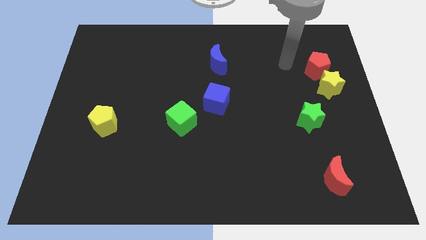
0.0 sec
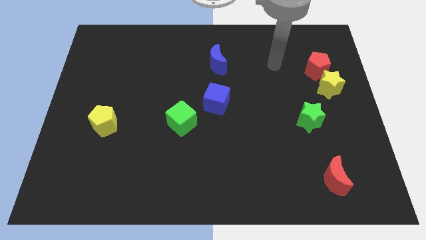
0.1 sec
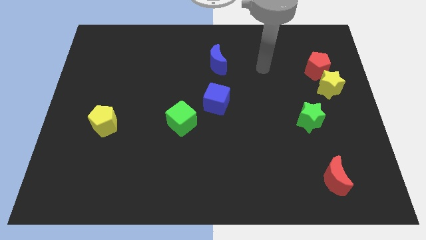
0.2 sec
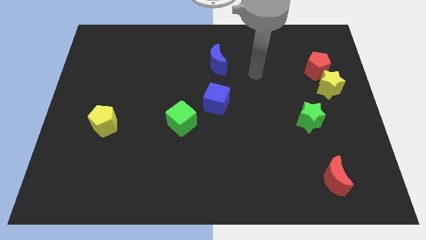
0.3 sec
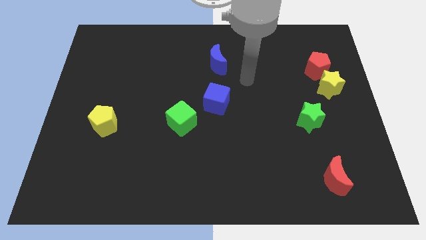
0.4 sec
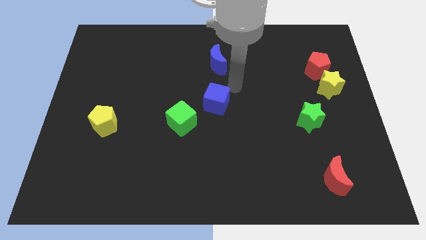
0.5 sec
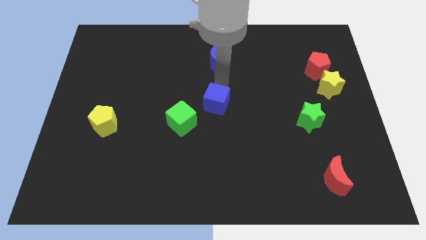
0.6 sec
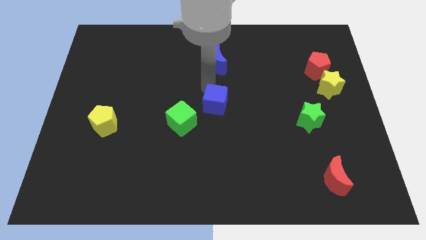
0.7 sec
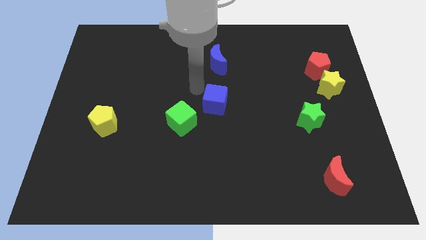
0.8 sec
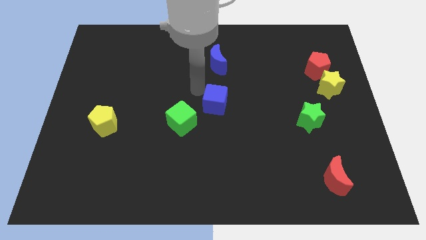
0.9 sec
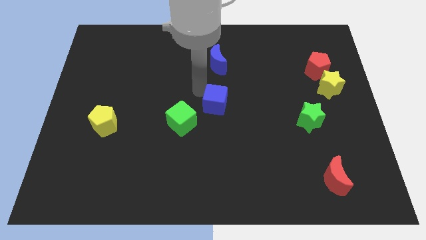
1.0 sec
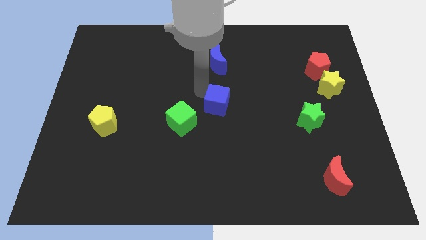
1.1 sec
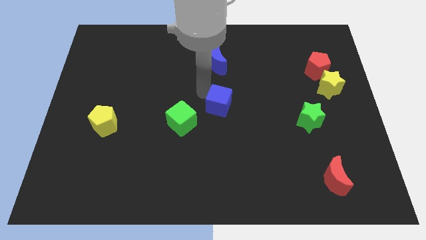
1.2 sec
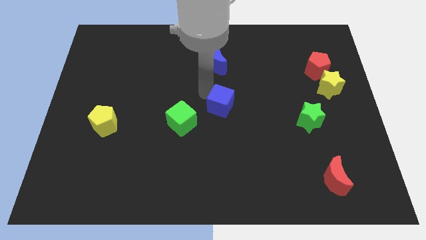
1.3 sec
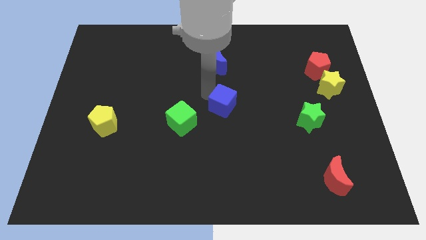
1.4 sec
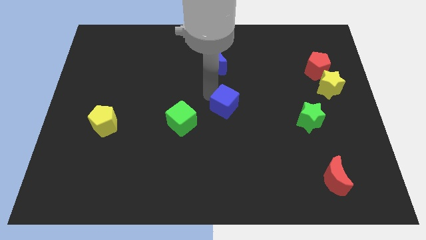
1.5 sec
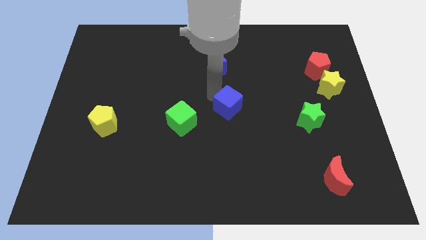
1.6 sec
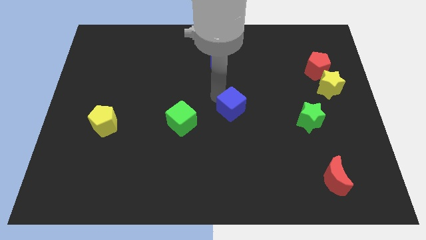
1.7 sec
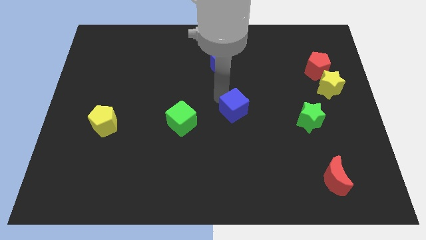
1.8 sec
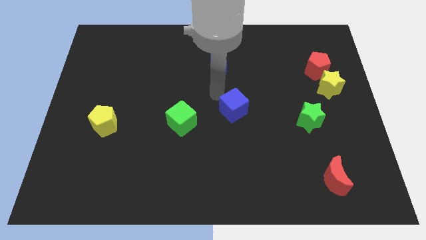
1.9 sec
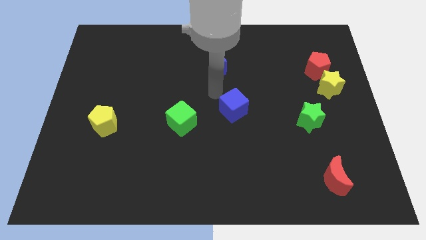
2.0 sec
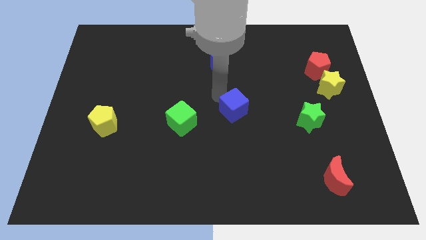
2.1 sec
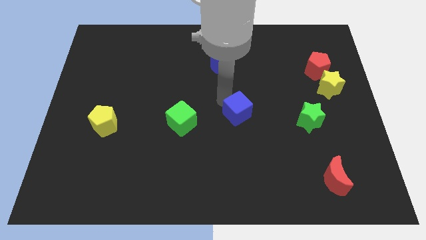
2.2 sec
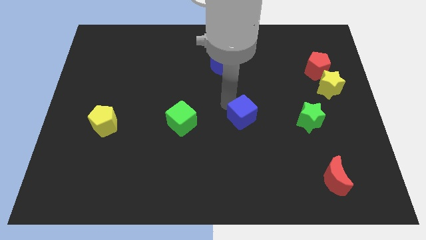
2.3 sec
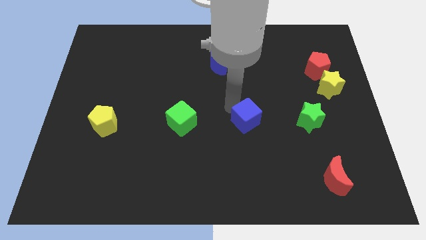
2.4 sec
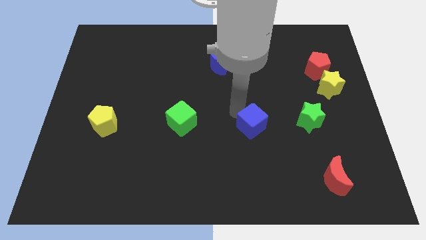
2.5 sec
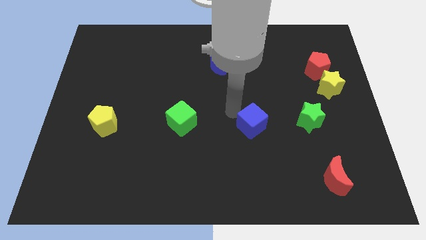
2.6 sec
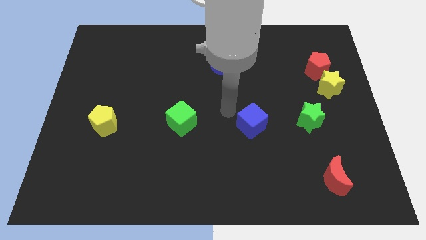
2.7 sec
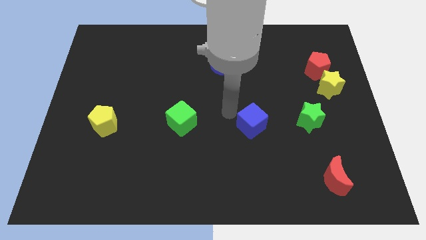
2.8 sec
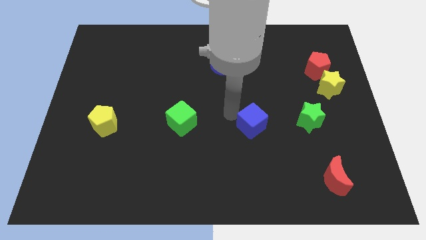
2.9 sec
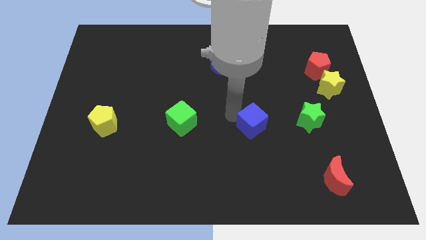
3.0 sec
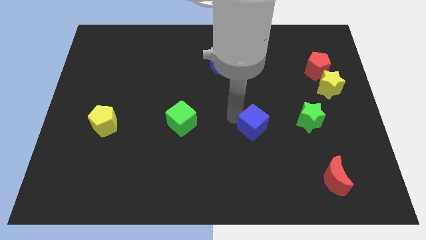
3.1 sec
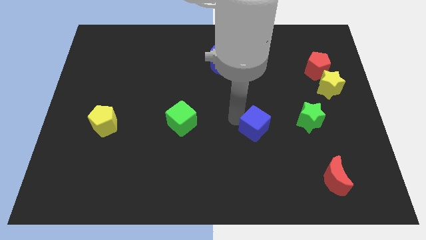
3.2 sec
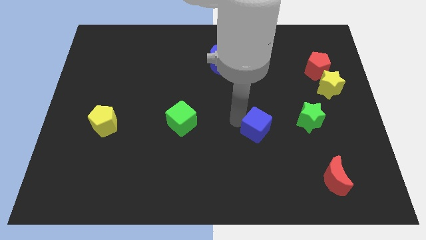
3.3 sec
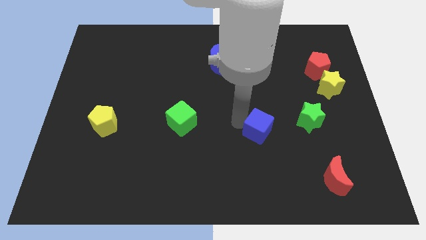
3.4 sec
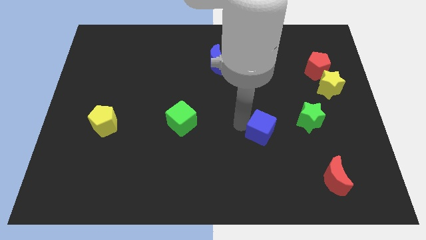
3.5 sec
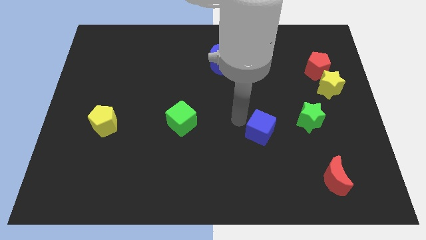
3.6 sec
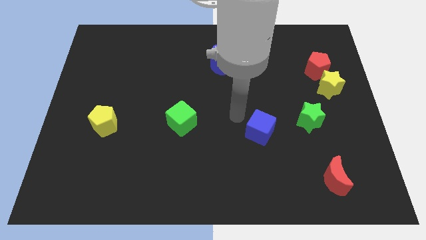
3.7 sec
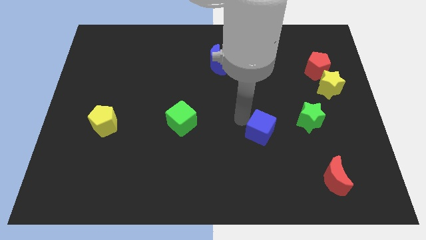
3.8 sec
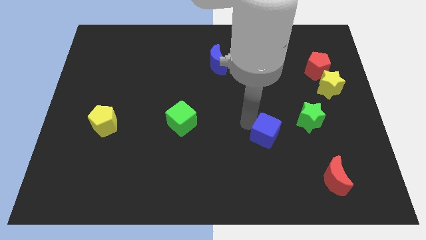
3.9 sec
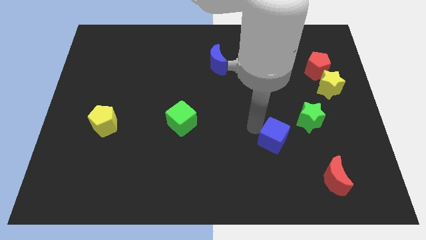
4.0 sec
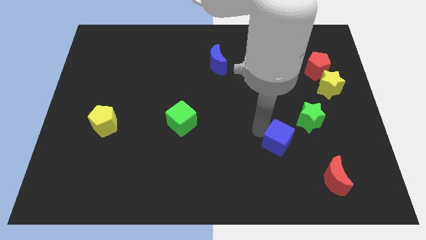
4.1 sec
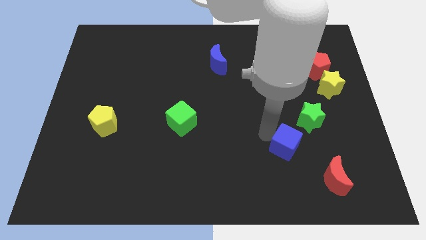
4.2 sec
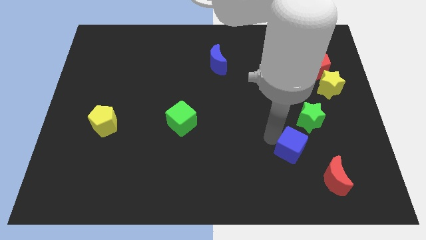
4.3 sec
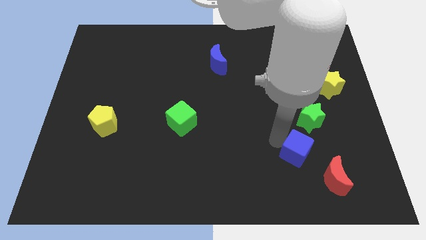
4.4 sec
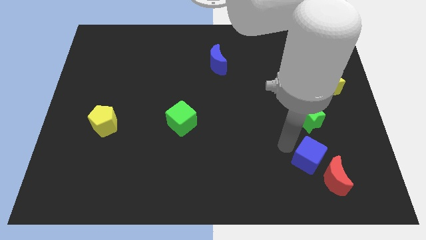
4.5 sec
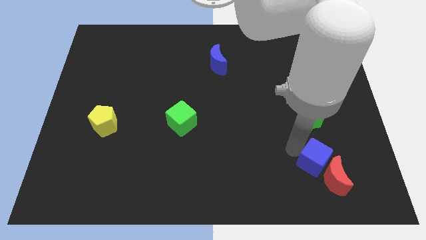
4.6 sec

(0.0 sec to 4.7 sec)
push the blue cube next to the red moon

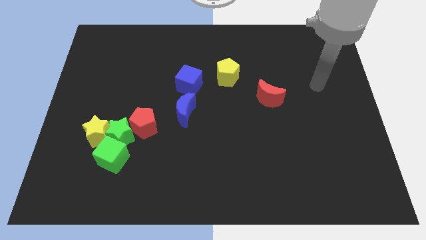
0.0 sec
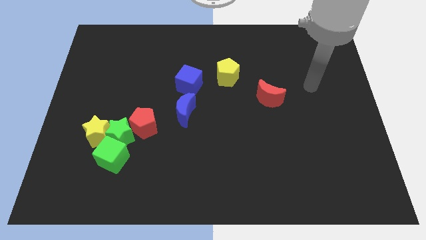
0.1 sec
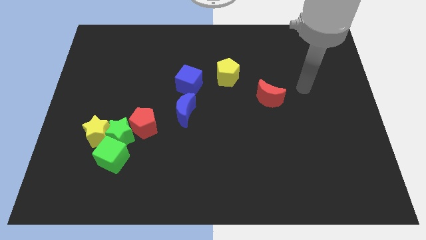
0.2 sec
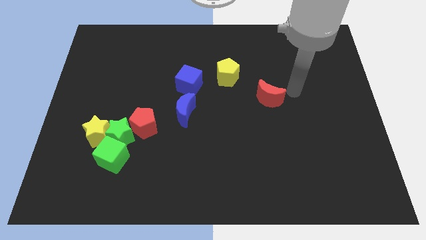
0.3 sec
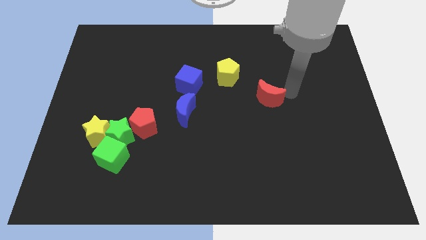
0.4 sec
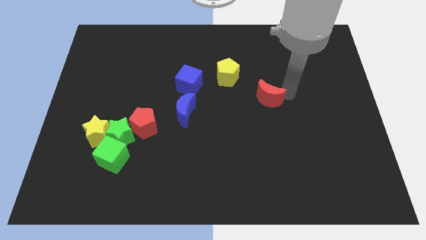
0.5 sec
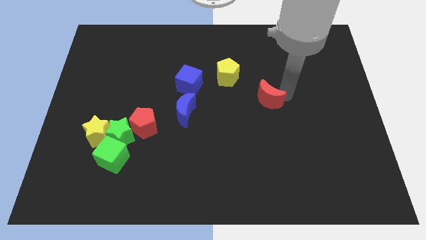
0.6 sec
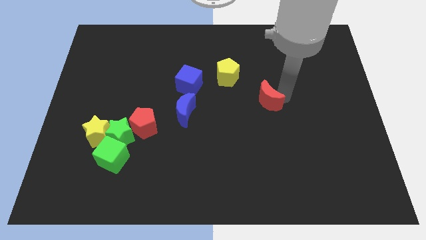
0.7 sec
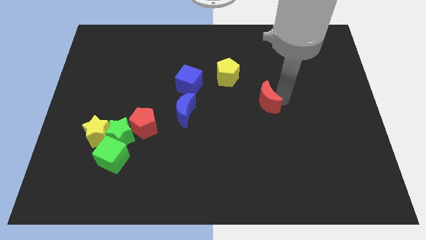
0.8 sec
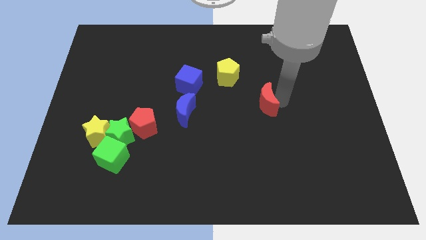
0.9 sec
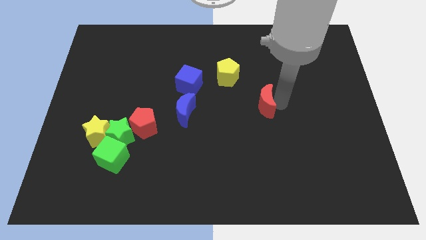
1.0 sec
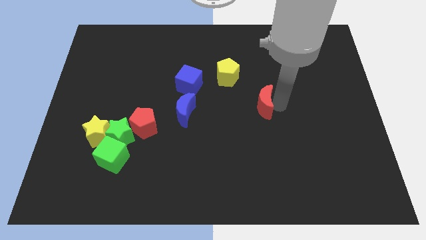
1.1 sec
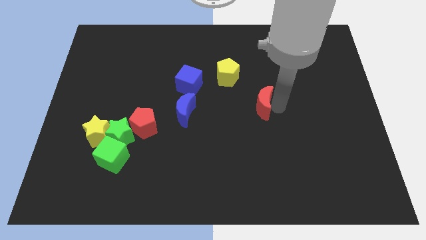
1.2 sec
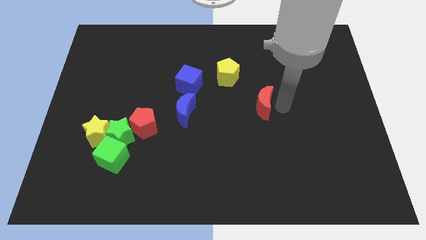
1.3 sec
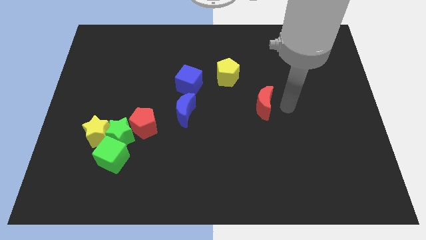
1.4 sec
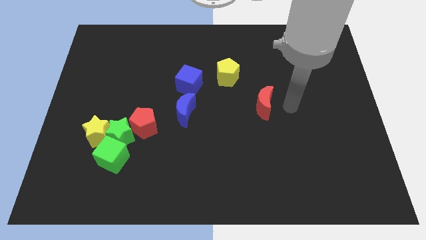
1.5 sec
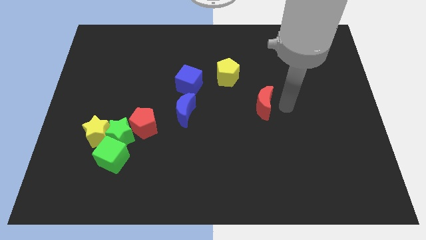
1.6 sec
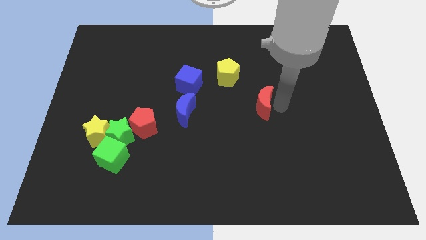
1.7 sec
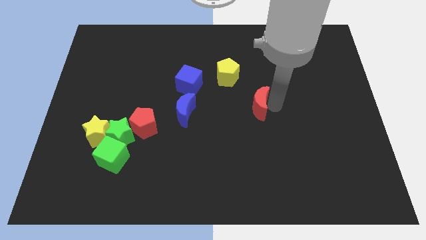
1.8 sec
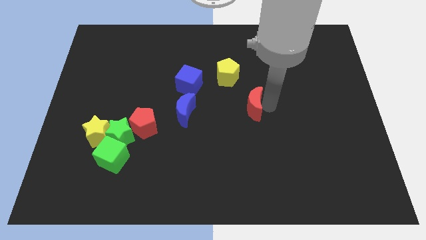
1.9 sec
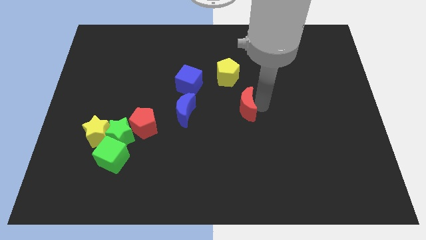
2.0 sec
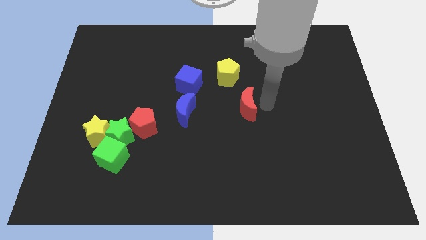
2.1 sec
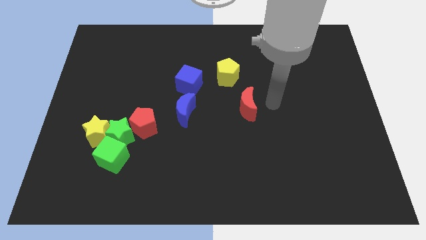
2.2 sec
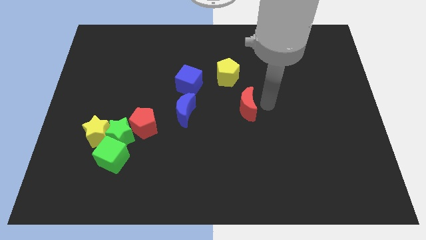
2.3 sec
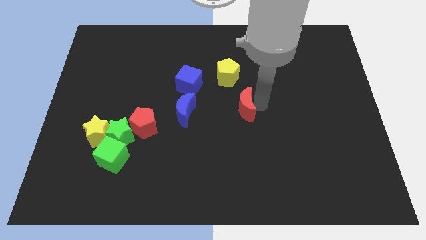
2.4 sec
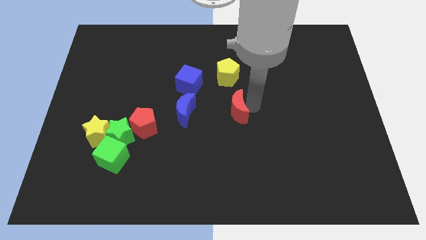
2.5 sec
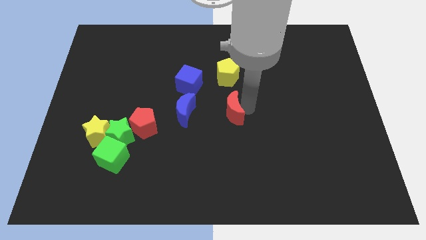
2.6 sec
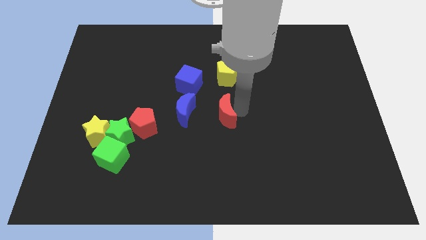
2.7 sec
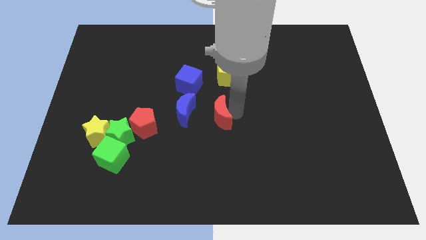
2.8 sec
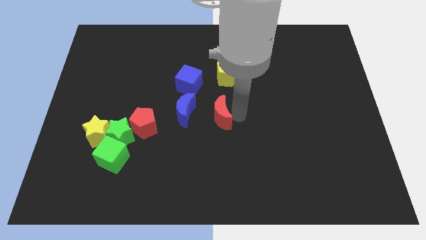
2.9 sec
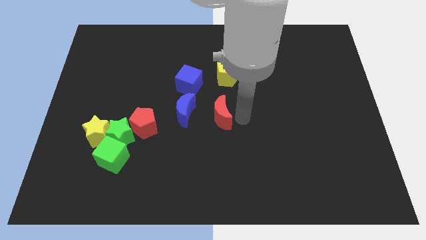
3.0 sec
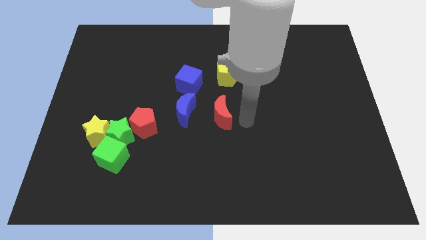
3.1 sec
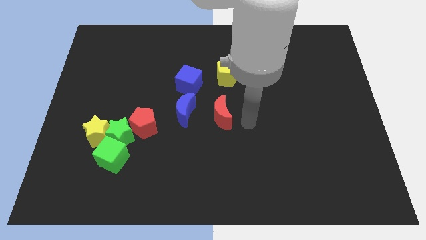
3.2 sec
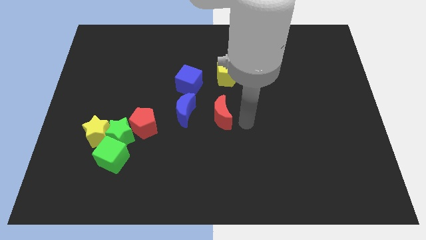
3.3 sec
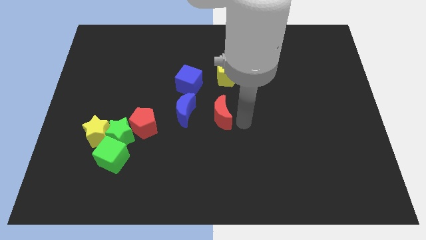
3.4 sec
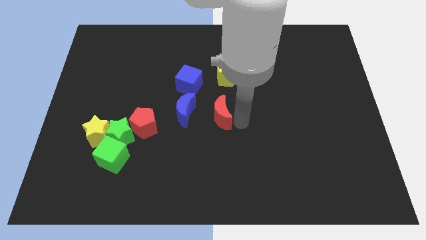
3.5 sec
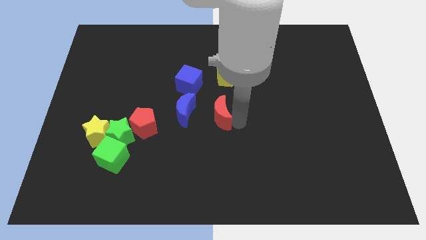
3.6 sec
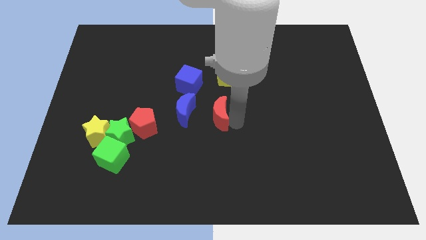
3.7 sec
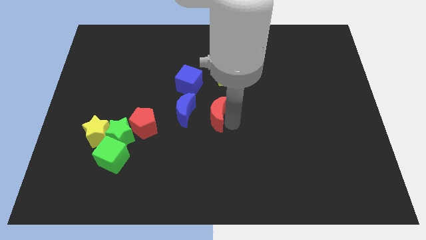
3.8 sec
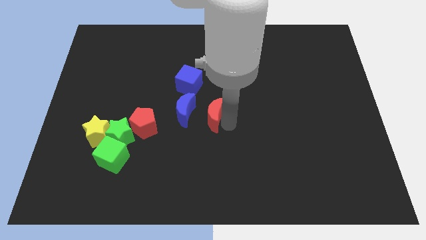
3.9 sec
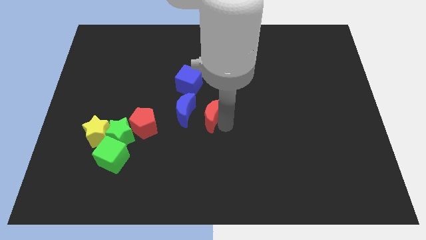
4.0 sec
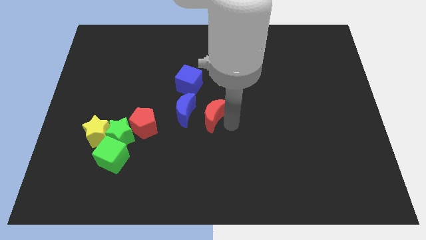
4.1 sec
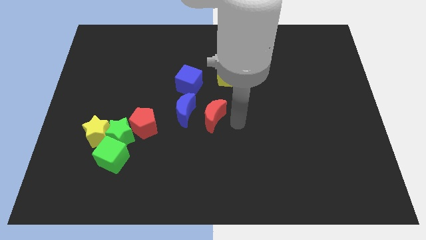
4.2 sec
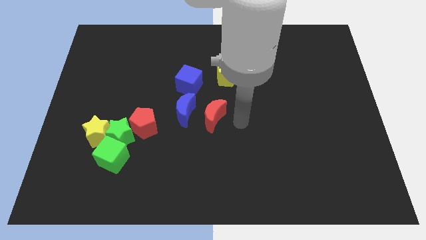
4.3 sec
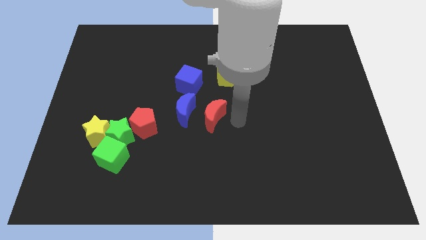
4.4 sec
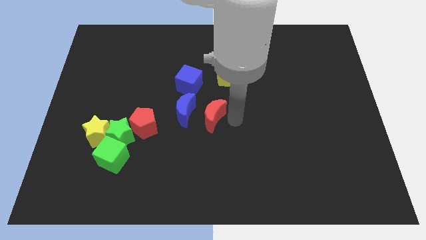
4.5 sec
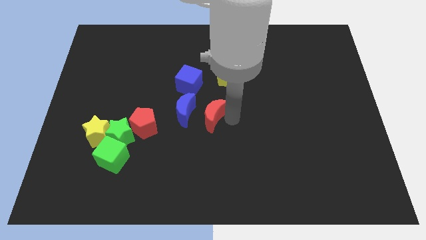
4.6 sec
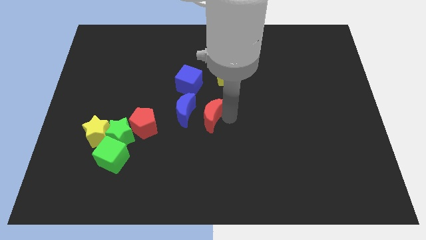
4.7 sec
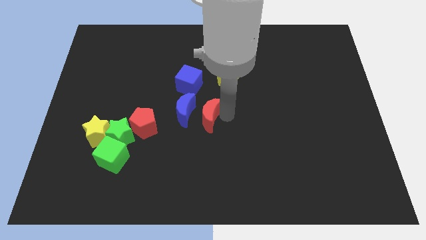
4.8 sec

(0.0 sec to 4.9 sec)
put the red moon close to the blue moon
